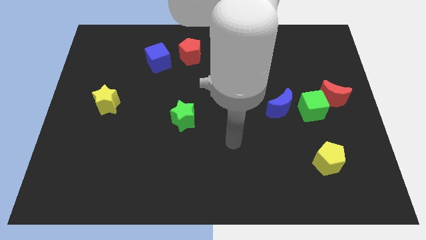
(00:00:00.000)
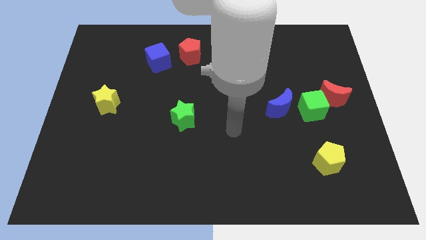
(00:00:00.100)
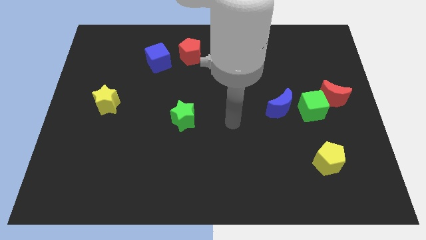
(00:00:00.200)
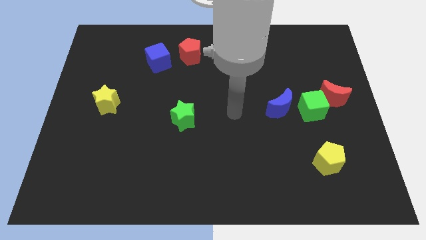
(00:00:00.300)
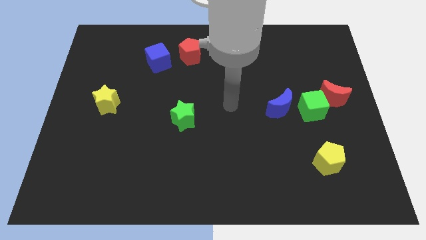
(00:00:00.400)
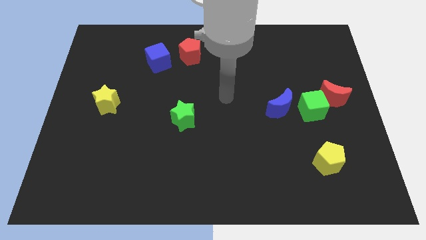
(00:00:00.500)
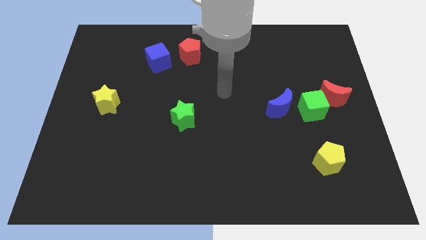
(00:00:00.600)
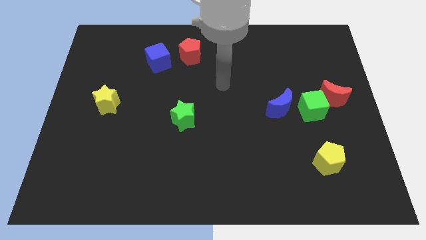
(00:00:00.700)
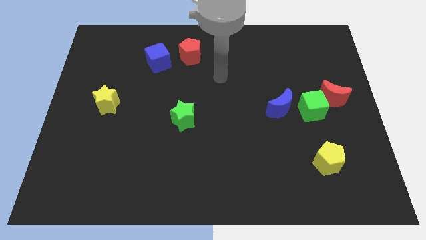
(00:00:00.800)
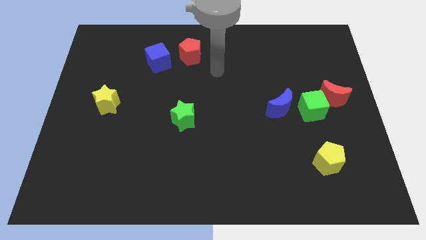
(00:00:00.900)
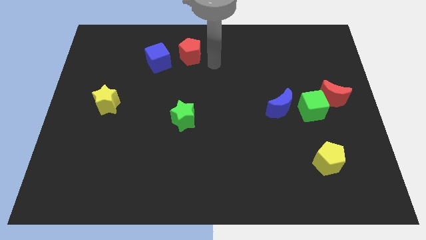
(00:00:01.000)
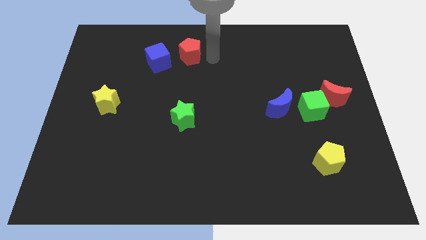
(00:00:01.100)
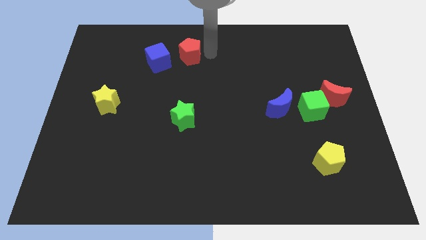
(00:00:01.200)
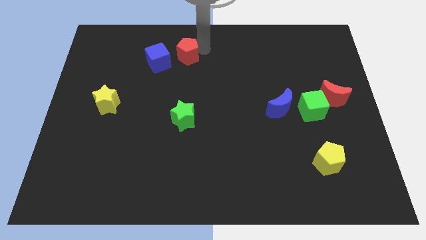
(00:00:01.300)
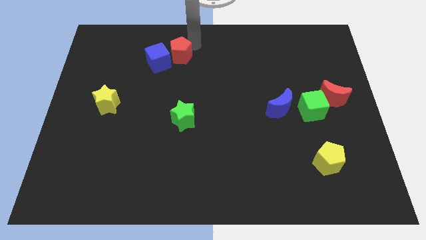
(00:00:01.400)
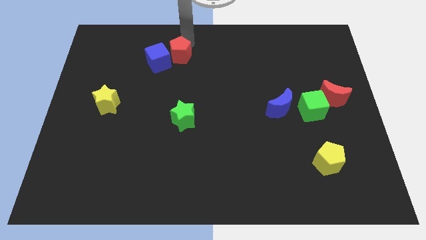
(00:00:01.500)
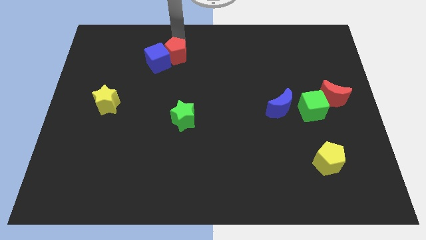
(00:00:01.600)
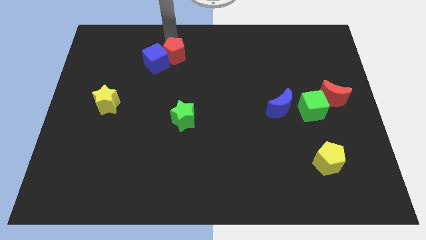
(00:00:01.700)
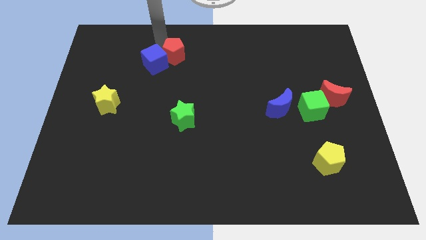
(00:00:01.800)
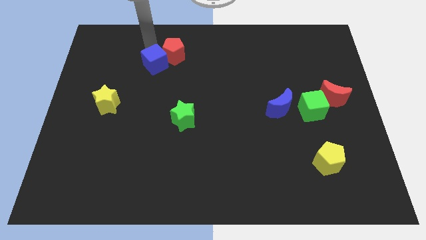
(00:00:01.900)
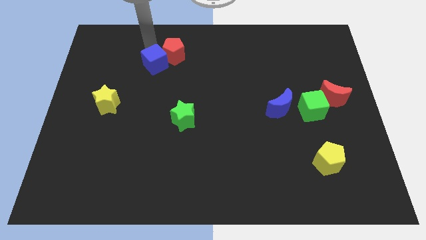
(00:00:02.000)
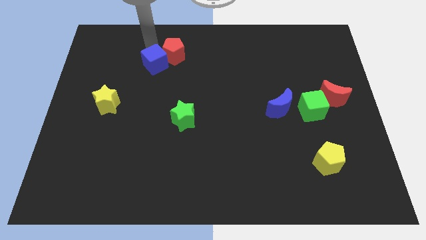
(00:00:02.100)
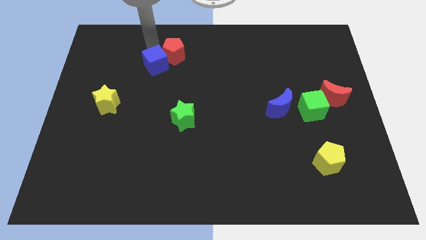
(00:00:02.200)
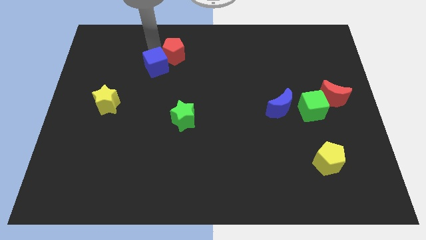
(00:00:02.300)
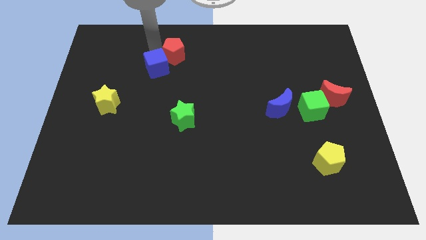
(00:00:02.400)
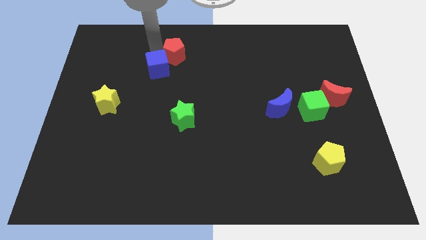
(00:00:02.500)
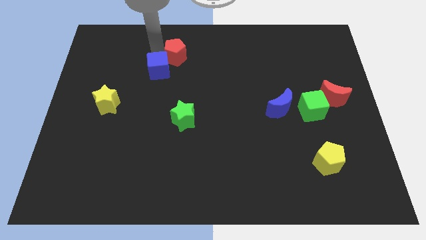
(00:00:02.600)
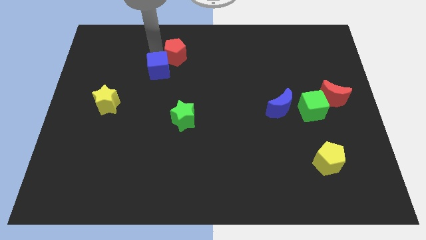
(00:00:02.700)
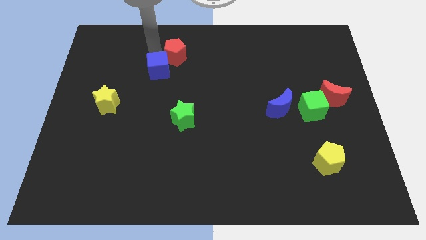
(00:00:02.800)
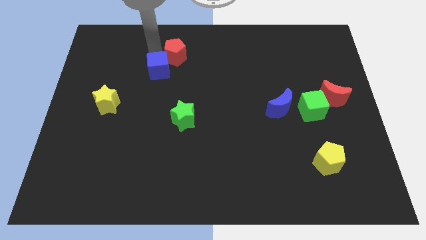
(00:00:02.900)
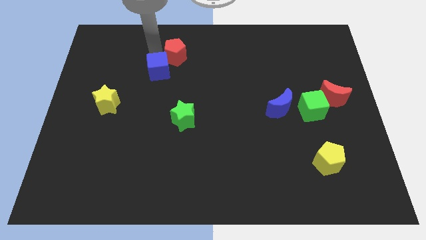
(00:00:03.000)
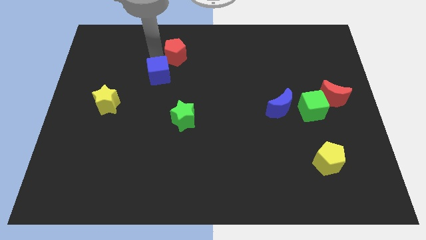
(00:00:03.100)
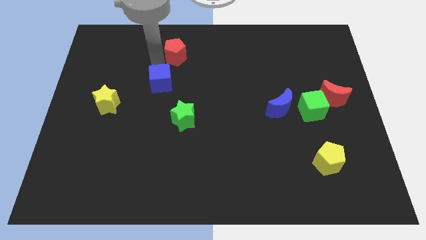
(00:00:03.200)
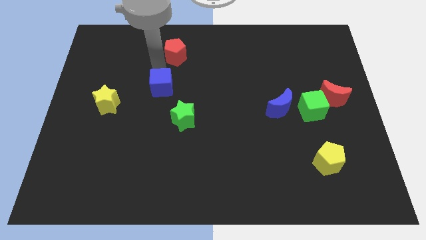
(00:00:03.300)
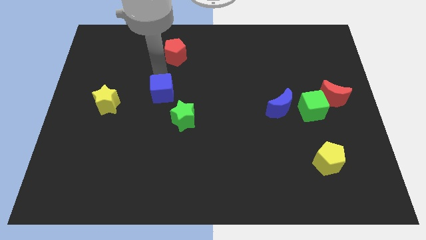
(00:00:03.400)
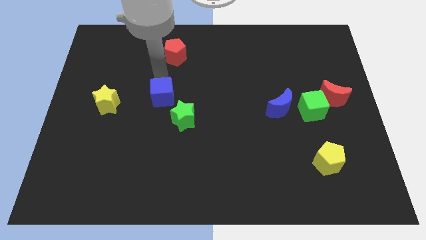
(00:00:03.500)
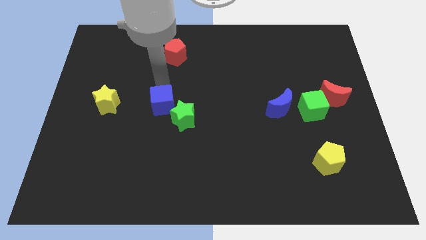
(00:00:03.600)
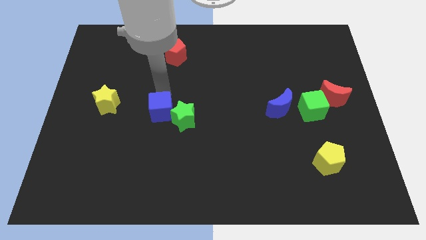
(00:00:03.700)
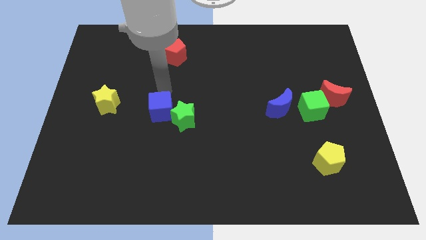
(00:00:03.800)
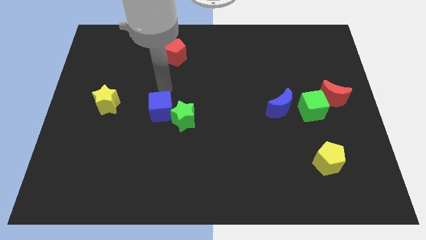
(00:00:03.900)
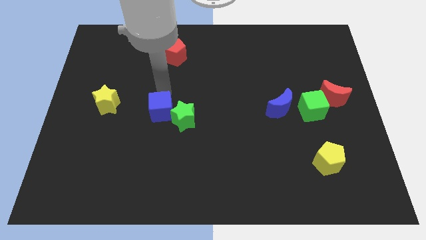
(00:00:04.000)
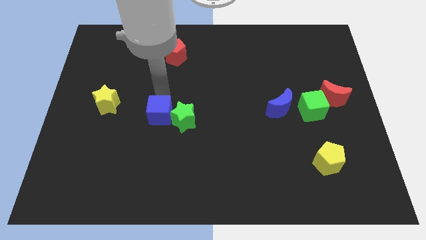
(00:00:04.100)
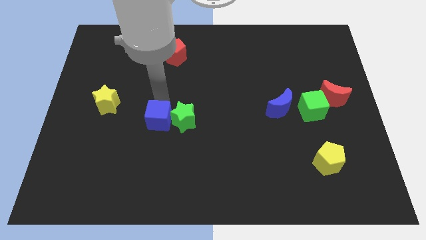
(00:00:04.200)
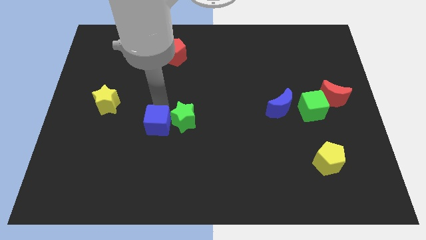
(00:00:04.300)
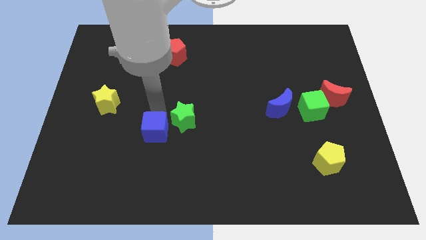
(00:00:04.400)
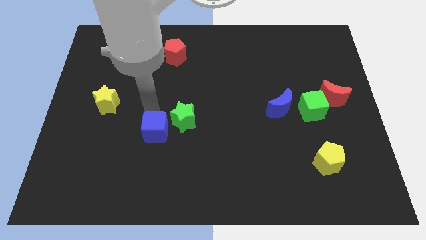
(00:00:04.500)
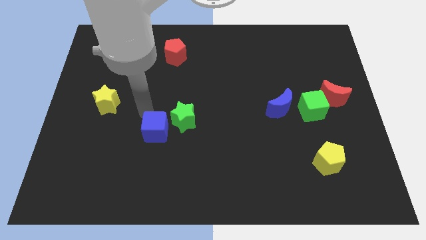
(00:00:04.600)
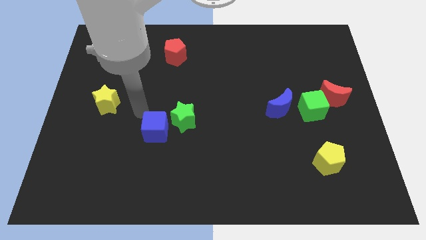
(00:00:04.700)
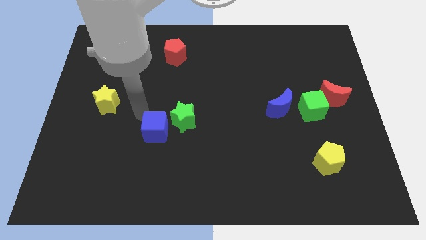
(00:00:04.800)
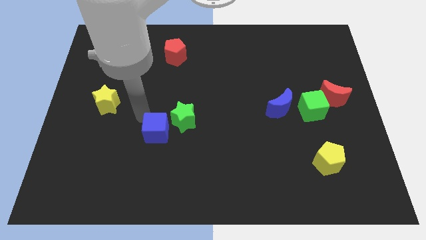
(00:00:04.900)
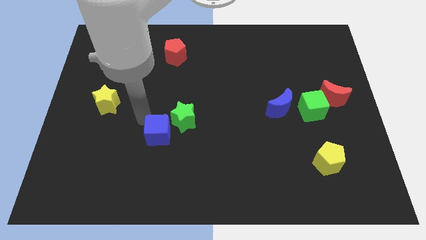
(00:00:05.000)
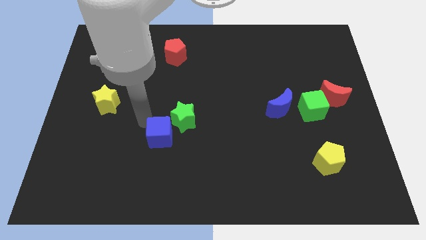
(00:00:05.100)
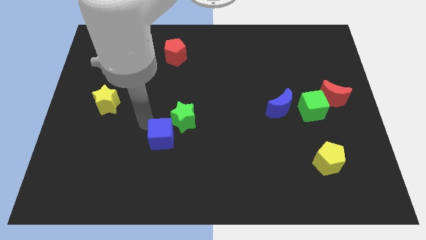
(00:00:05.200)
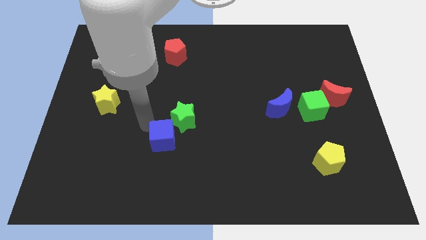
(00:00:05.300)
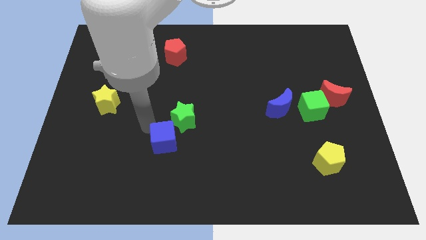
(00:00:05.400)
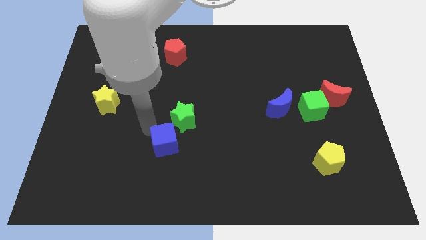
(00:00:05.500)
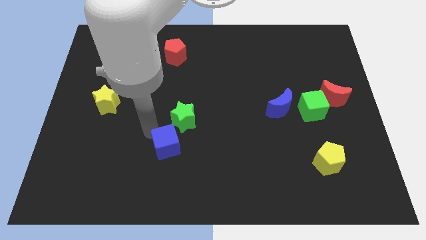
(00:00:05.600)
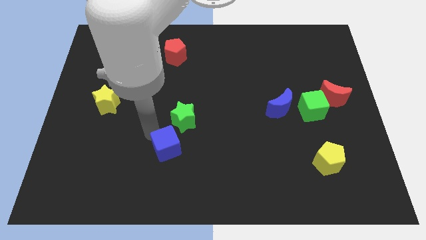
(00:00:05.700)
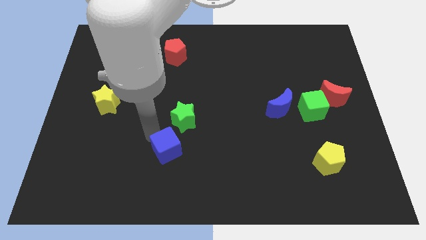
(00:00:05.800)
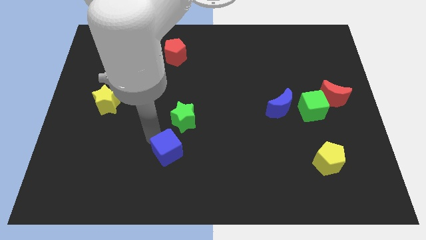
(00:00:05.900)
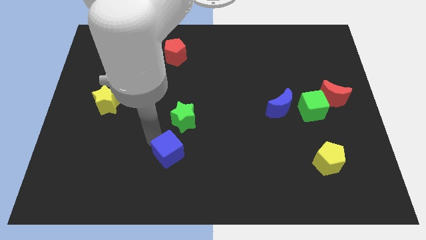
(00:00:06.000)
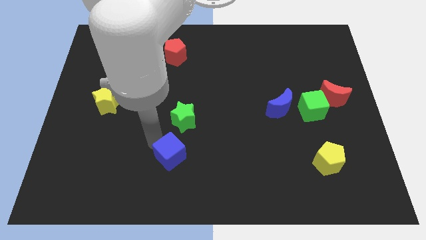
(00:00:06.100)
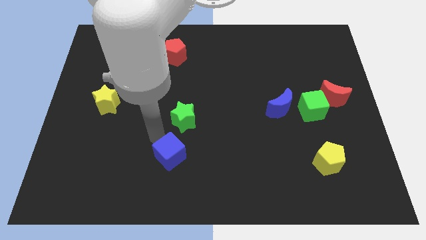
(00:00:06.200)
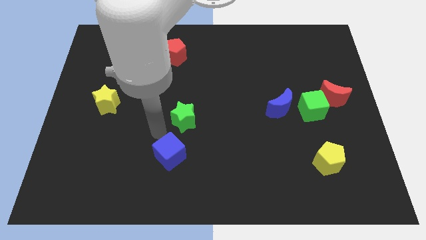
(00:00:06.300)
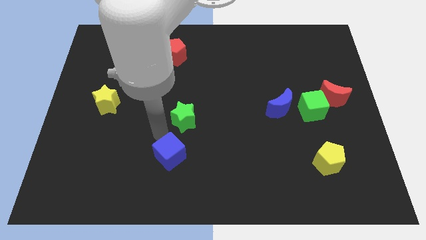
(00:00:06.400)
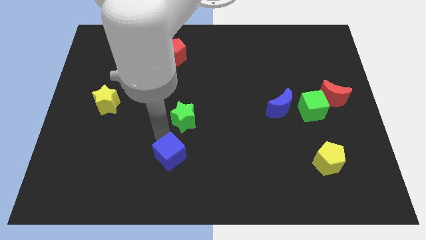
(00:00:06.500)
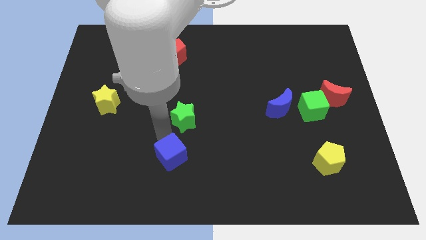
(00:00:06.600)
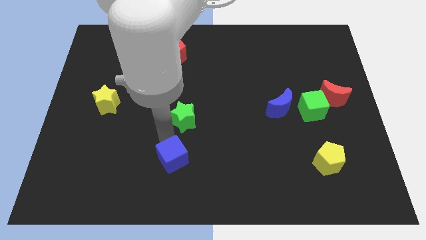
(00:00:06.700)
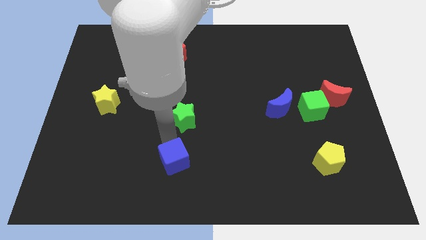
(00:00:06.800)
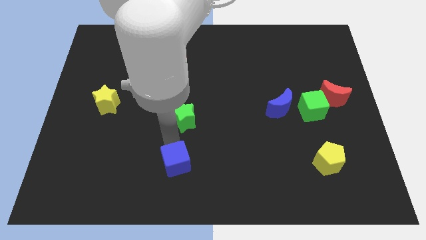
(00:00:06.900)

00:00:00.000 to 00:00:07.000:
move the blue cube to the bottom side
